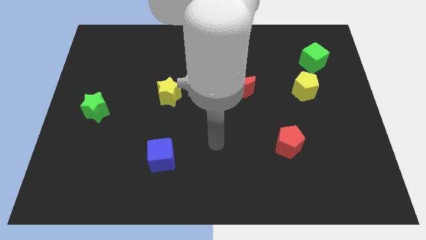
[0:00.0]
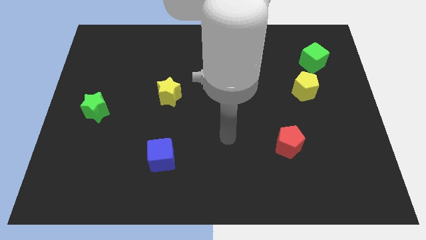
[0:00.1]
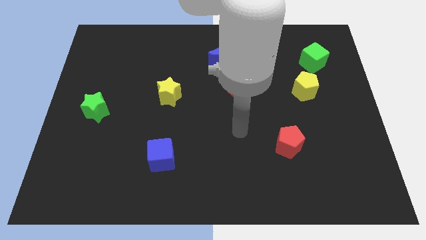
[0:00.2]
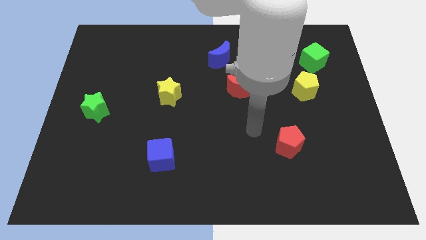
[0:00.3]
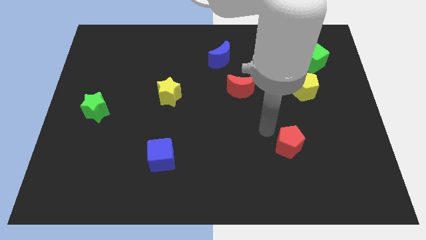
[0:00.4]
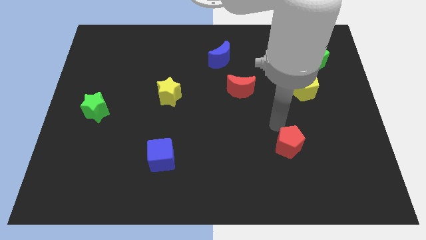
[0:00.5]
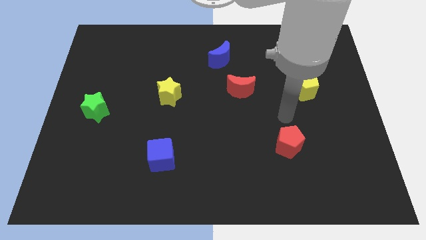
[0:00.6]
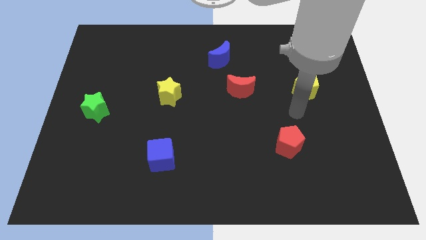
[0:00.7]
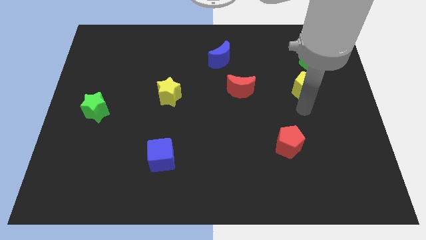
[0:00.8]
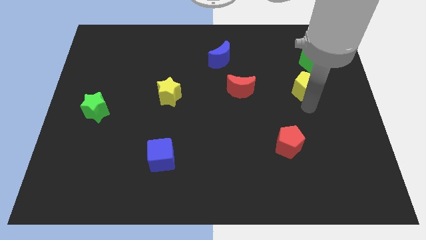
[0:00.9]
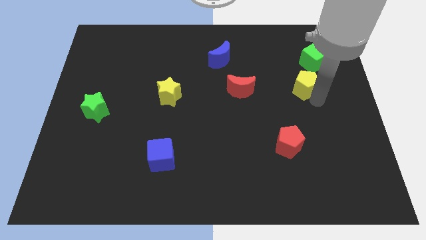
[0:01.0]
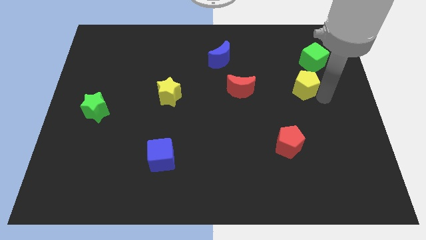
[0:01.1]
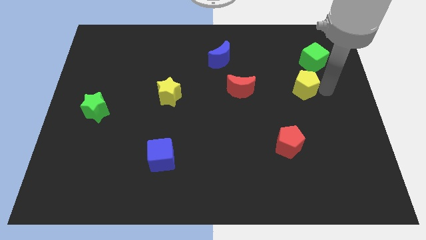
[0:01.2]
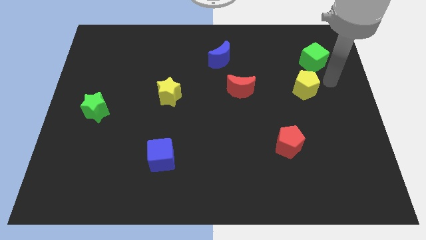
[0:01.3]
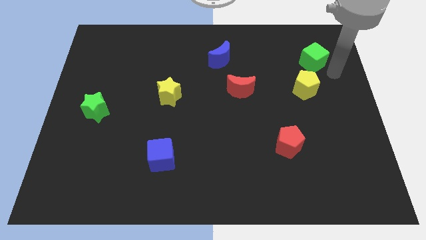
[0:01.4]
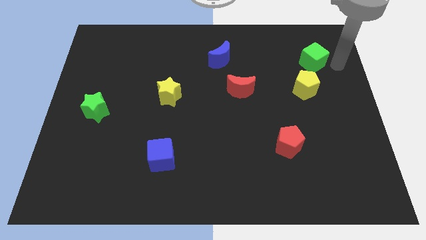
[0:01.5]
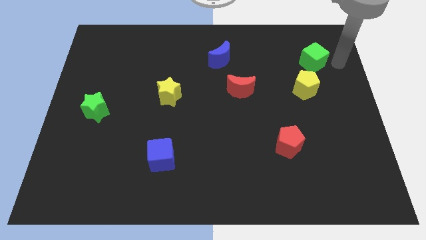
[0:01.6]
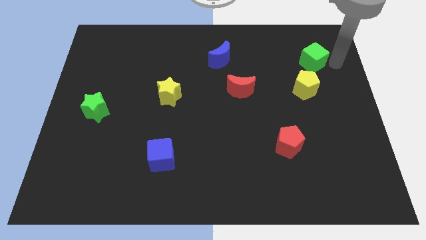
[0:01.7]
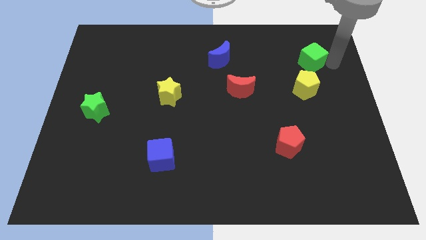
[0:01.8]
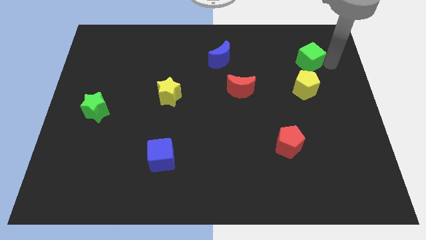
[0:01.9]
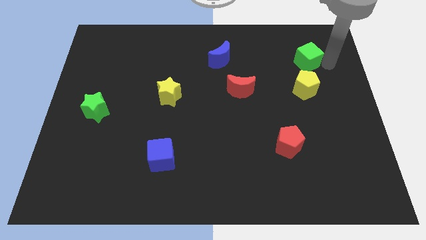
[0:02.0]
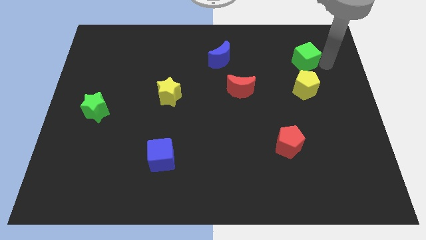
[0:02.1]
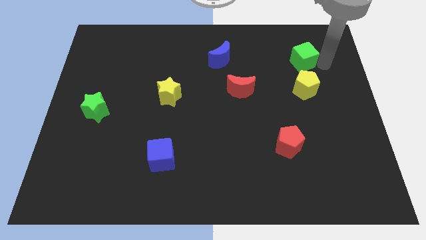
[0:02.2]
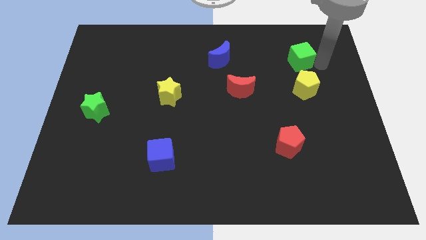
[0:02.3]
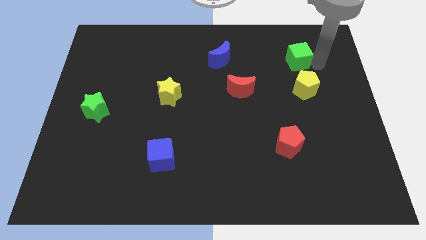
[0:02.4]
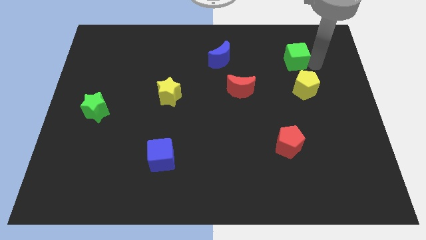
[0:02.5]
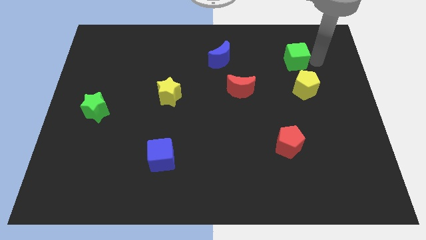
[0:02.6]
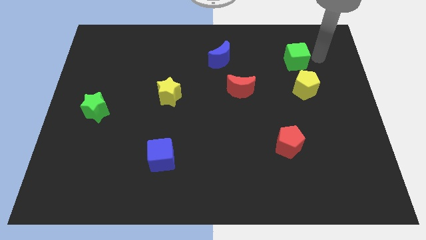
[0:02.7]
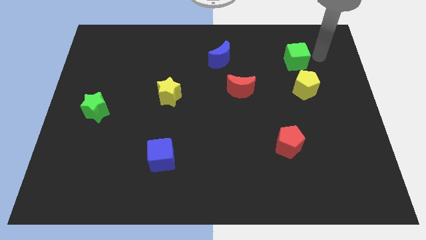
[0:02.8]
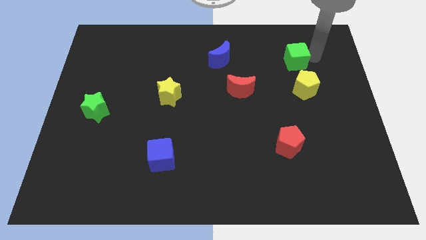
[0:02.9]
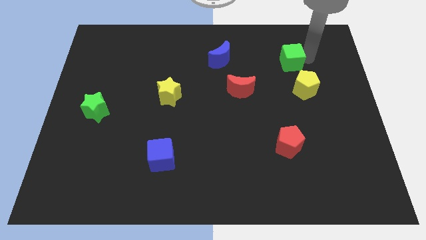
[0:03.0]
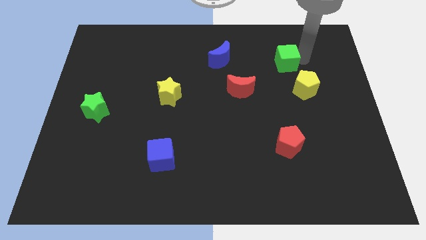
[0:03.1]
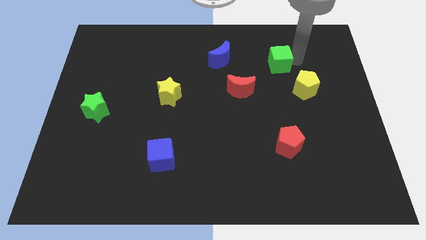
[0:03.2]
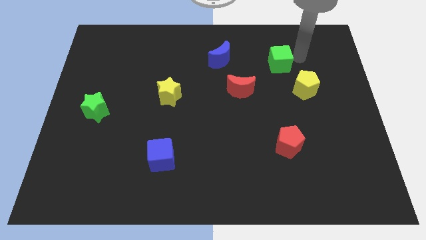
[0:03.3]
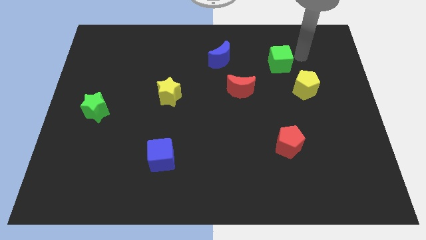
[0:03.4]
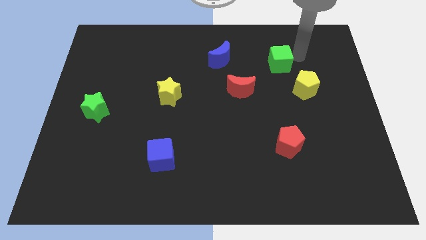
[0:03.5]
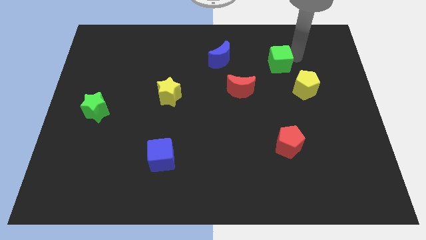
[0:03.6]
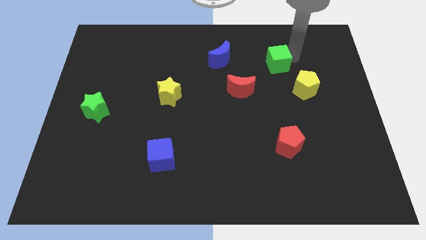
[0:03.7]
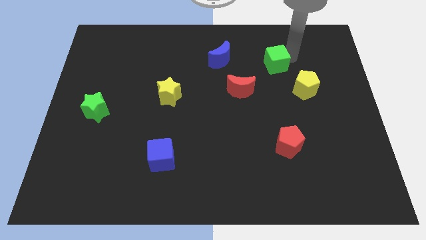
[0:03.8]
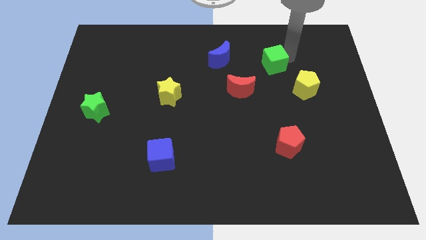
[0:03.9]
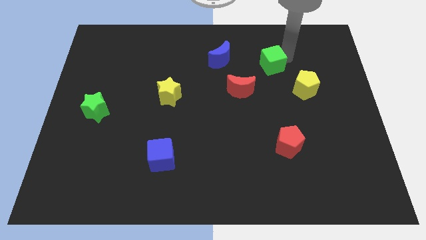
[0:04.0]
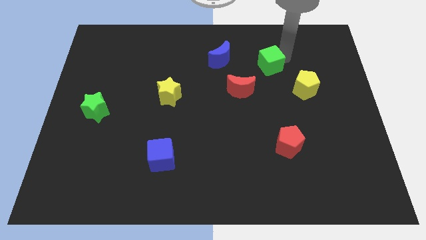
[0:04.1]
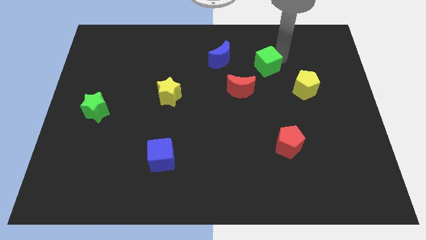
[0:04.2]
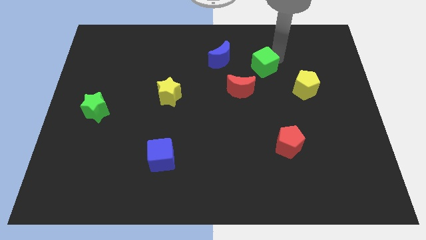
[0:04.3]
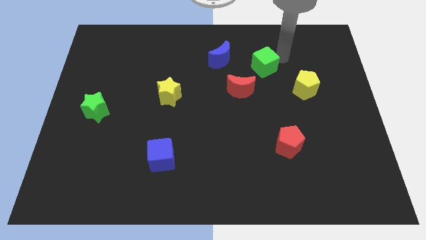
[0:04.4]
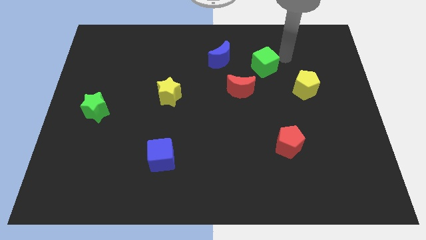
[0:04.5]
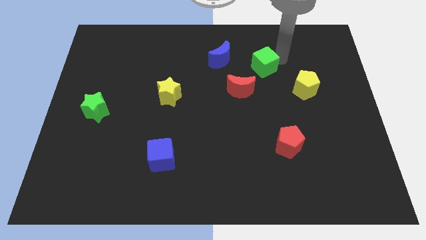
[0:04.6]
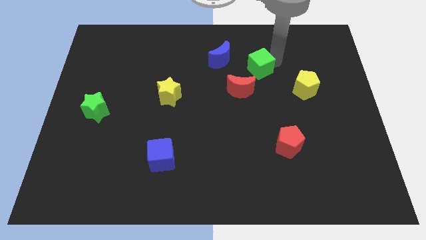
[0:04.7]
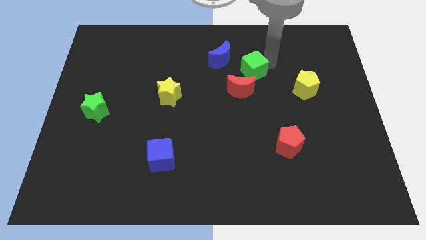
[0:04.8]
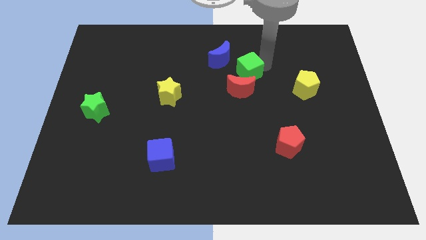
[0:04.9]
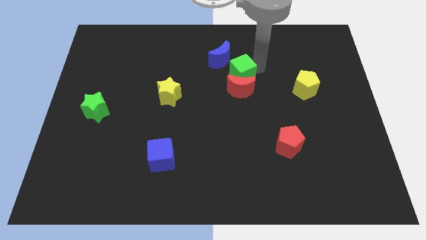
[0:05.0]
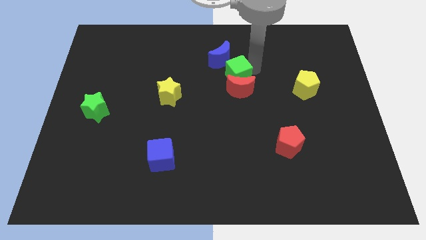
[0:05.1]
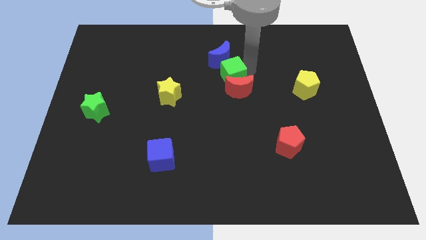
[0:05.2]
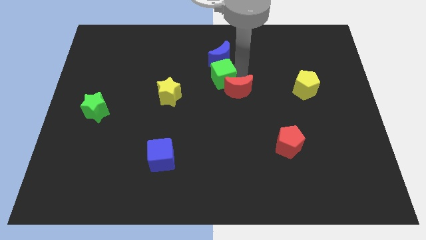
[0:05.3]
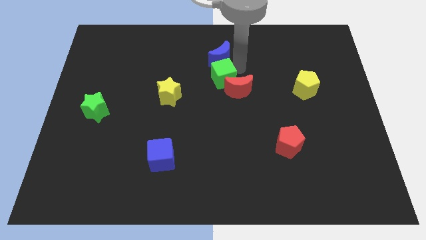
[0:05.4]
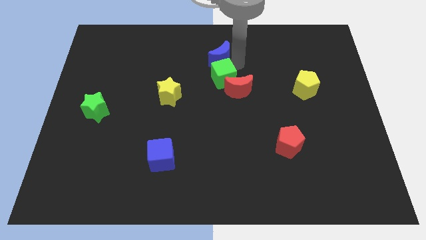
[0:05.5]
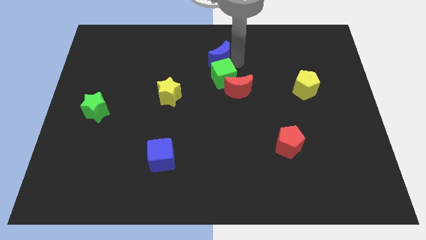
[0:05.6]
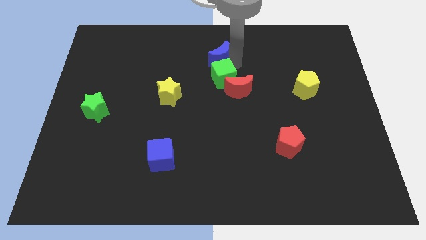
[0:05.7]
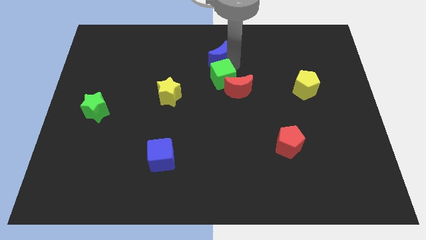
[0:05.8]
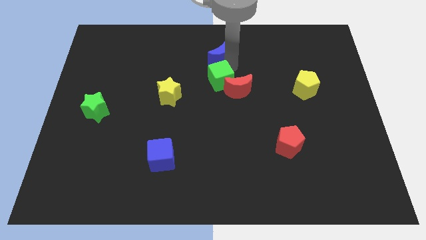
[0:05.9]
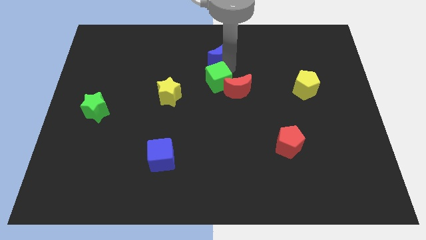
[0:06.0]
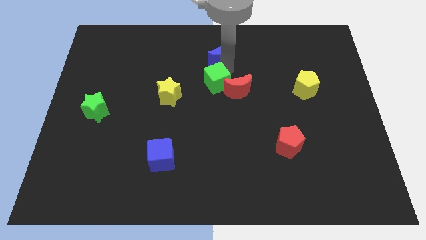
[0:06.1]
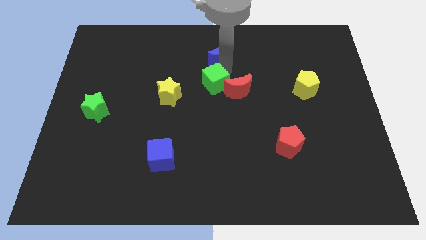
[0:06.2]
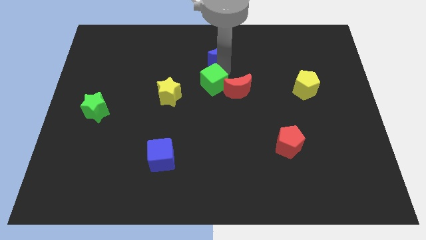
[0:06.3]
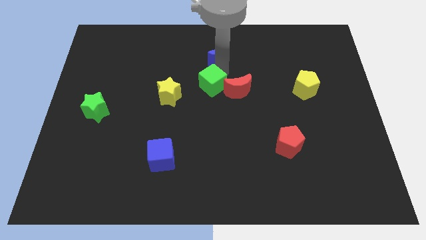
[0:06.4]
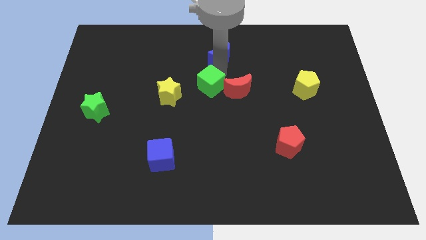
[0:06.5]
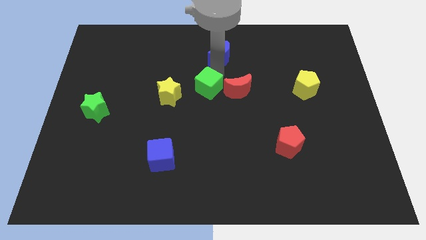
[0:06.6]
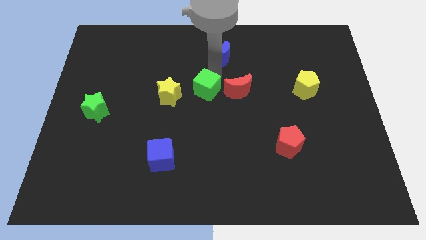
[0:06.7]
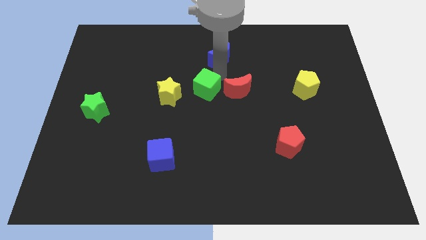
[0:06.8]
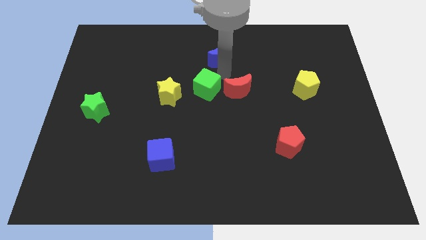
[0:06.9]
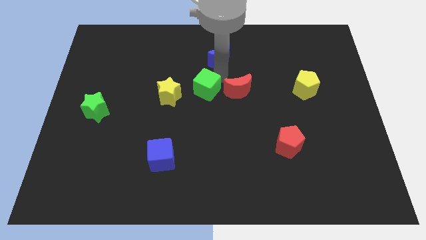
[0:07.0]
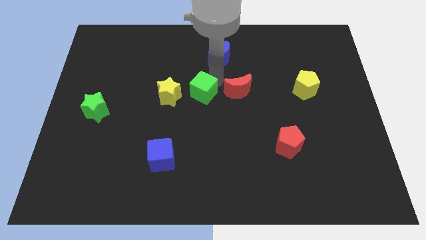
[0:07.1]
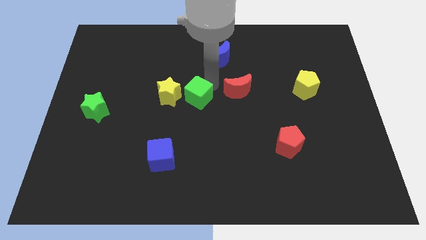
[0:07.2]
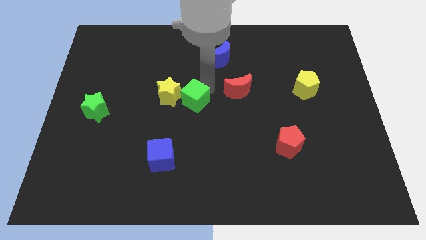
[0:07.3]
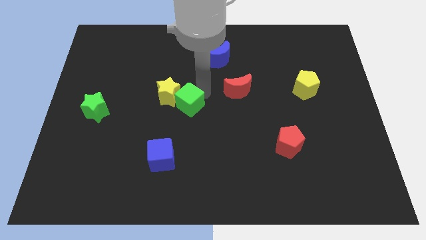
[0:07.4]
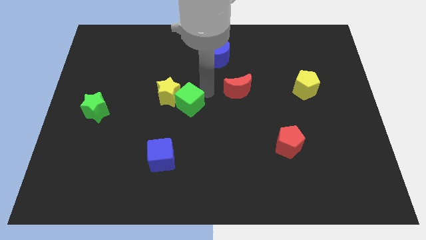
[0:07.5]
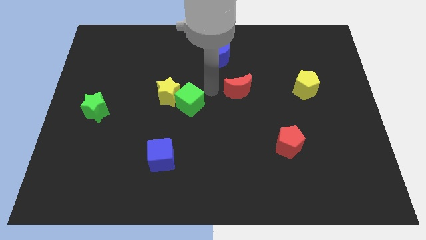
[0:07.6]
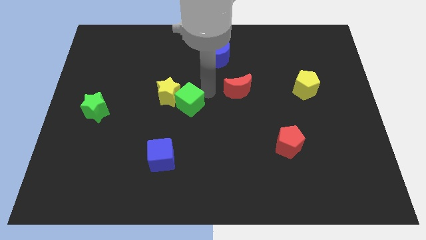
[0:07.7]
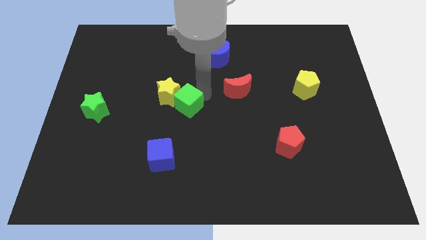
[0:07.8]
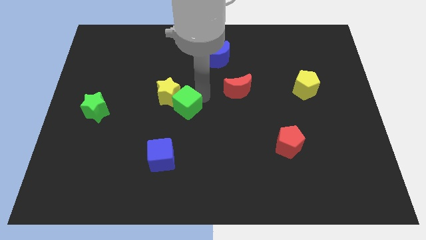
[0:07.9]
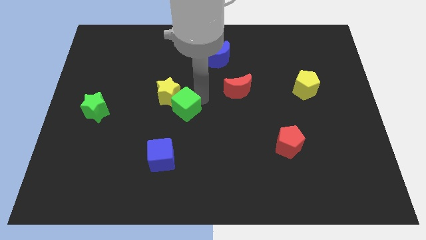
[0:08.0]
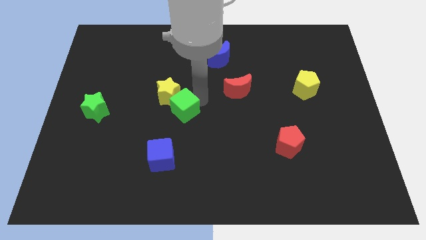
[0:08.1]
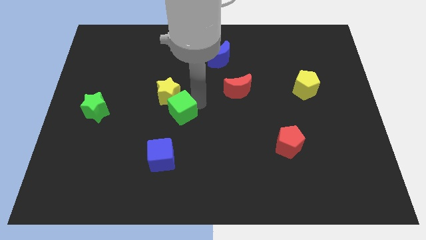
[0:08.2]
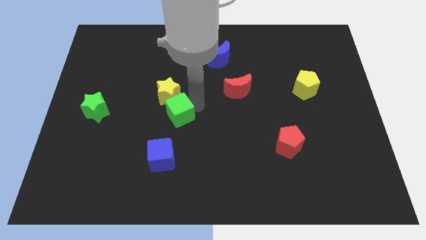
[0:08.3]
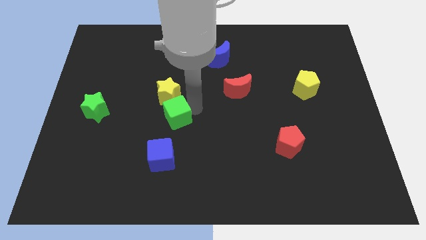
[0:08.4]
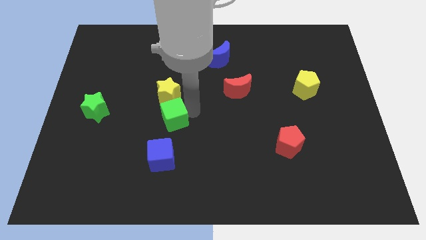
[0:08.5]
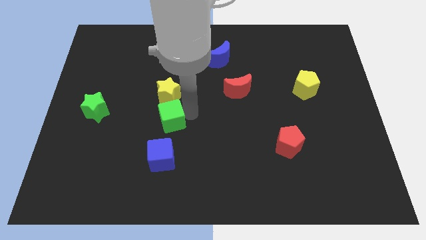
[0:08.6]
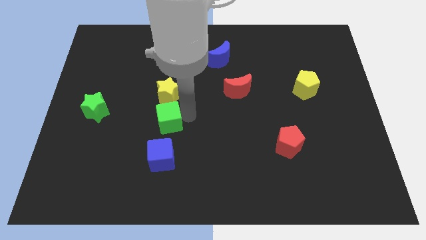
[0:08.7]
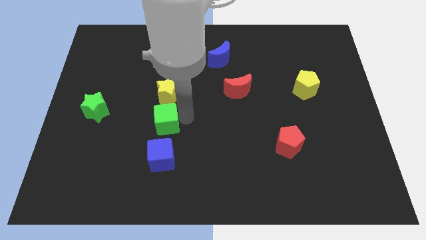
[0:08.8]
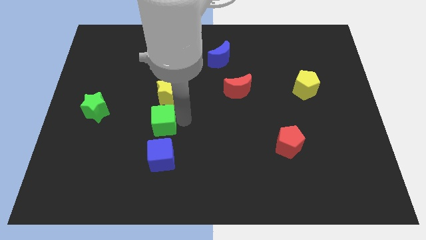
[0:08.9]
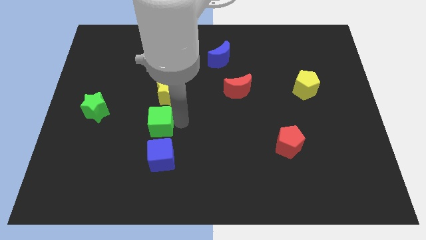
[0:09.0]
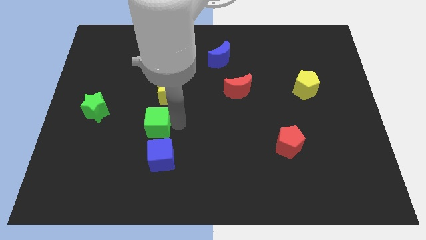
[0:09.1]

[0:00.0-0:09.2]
put the green cube to the bottom left side of the yellow star
